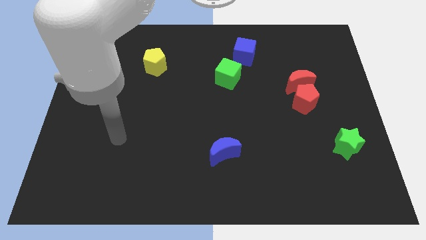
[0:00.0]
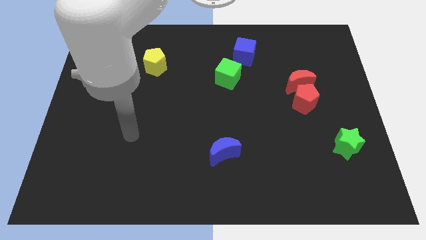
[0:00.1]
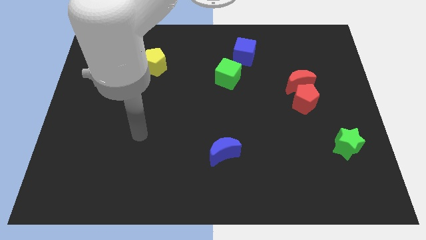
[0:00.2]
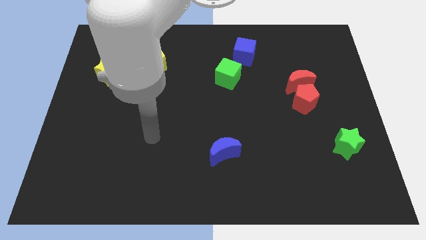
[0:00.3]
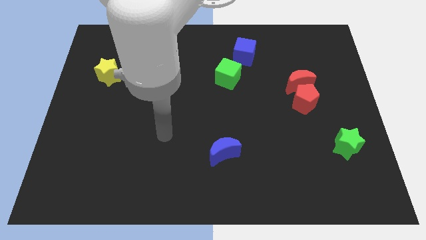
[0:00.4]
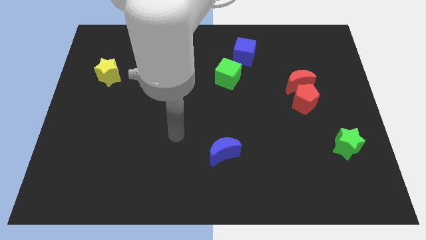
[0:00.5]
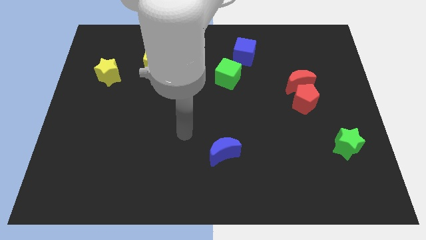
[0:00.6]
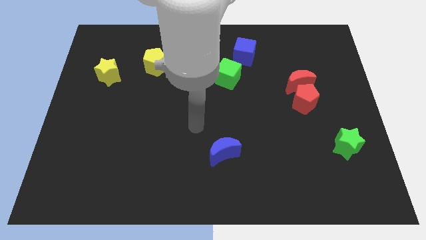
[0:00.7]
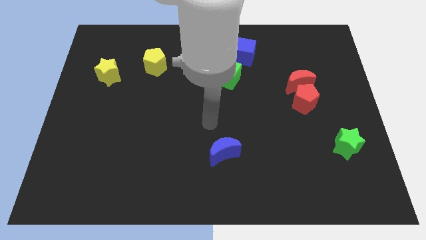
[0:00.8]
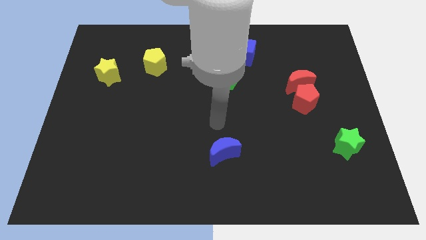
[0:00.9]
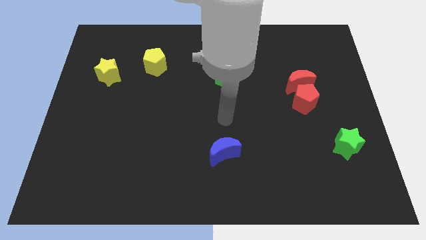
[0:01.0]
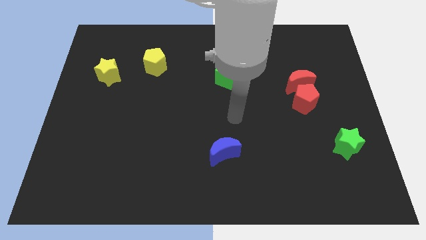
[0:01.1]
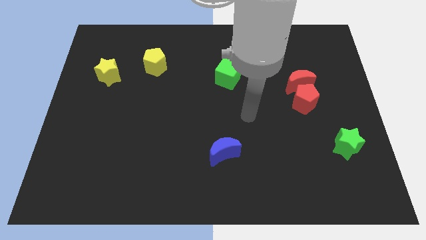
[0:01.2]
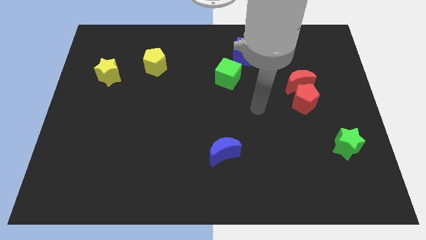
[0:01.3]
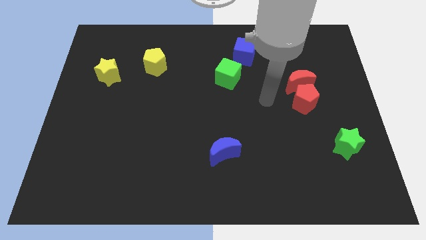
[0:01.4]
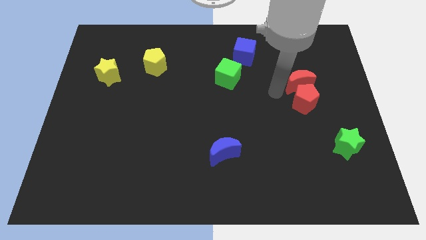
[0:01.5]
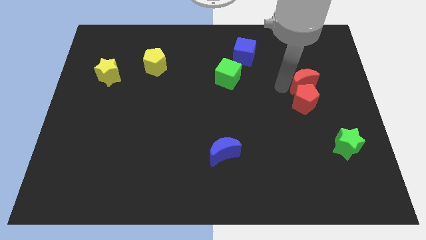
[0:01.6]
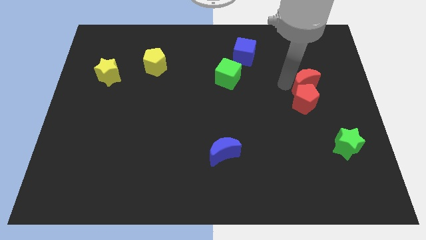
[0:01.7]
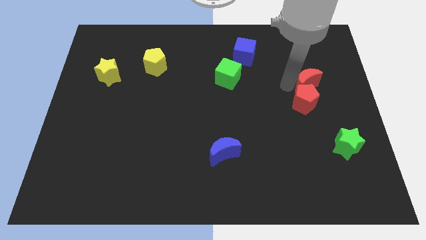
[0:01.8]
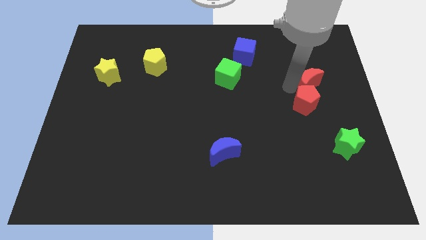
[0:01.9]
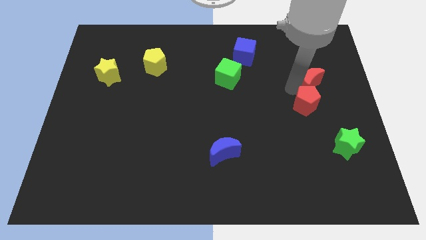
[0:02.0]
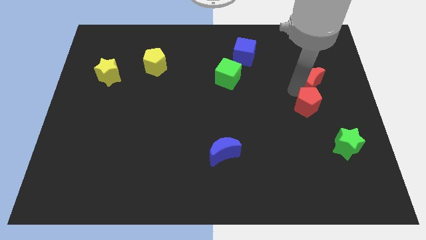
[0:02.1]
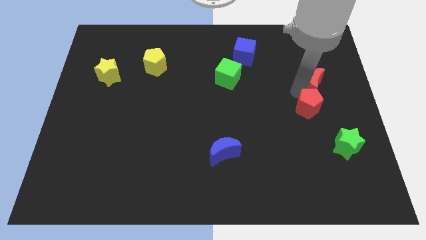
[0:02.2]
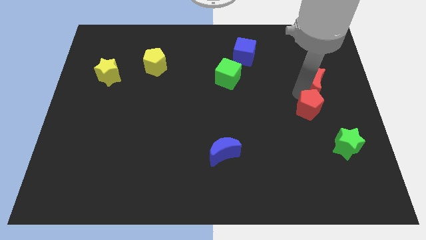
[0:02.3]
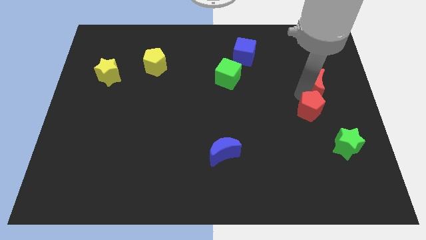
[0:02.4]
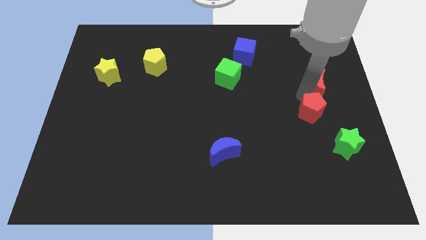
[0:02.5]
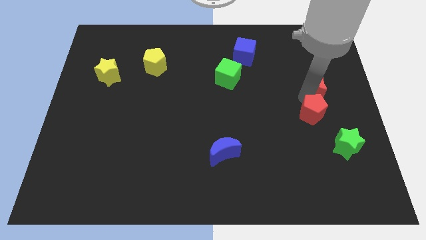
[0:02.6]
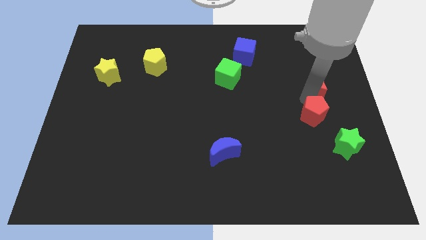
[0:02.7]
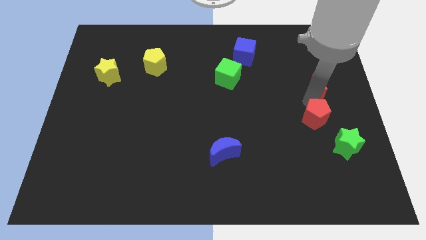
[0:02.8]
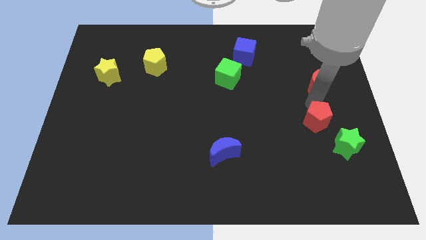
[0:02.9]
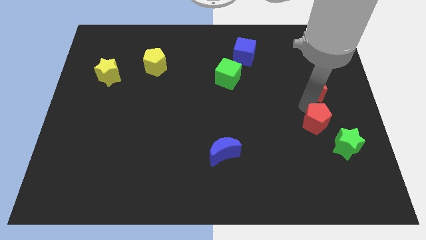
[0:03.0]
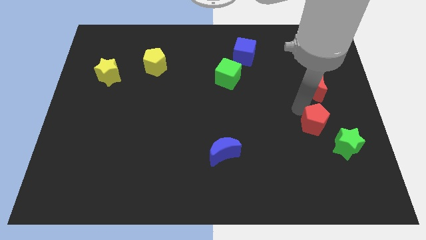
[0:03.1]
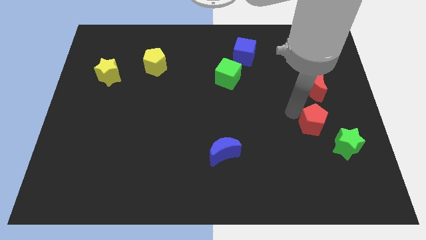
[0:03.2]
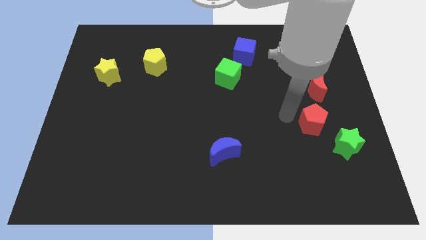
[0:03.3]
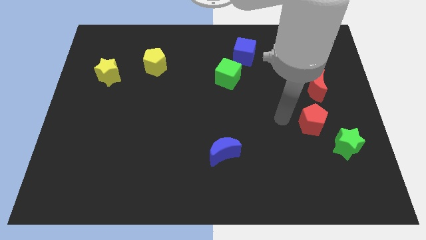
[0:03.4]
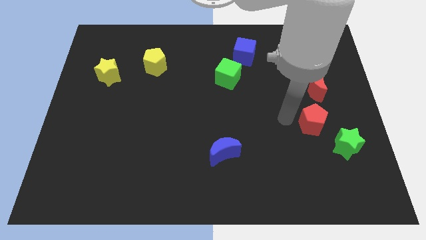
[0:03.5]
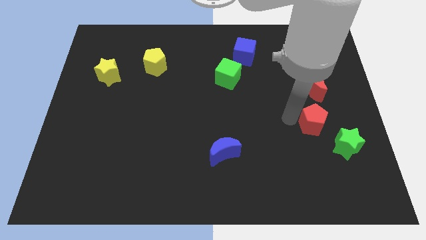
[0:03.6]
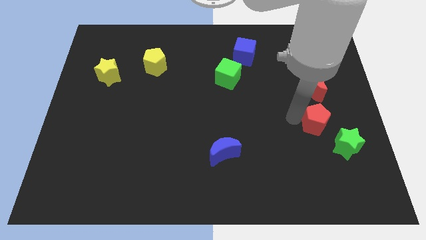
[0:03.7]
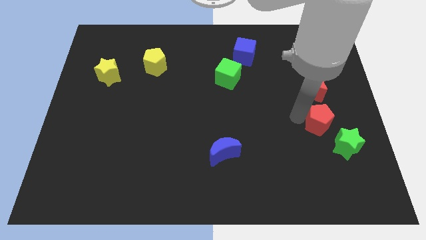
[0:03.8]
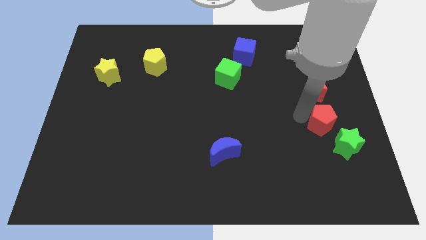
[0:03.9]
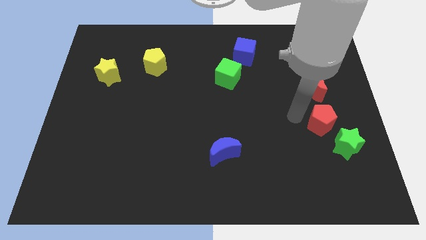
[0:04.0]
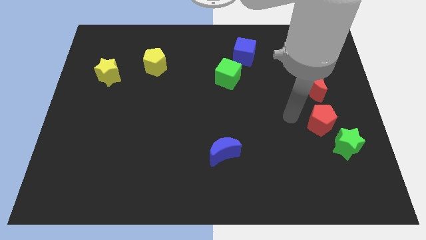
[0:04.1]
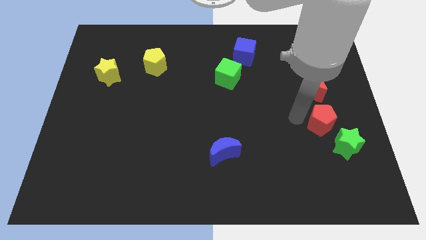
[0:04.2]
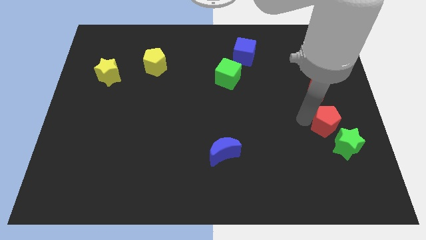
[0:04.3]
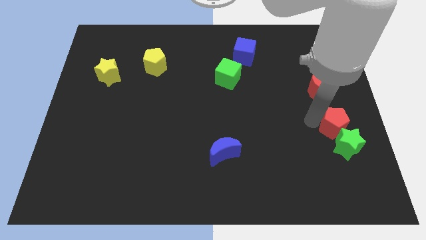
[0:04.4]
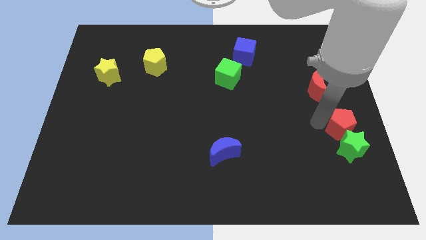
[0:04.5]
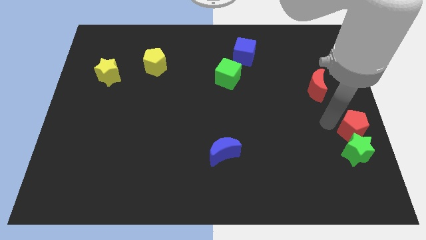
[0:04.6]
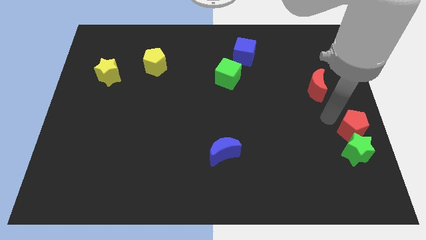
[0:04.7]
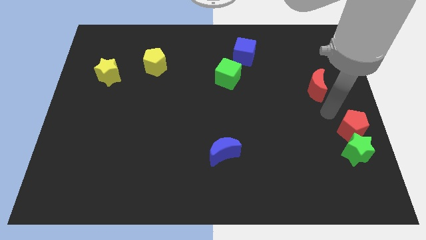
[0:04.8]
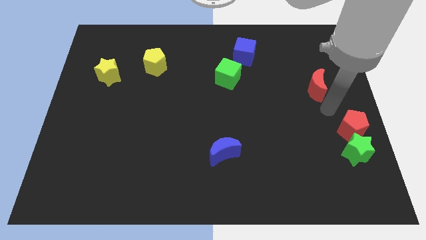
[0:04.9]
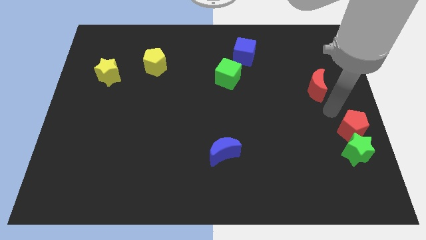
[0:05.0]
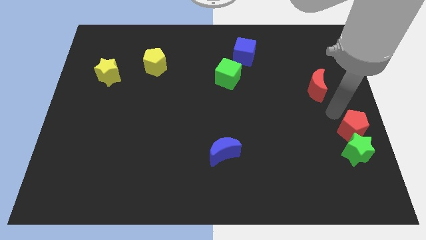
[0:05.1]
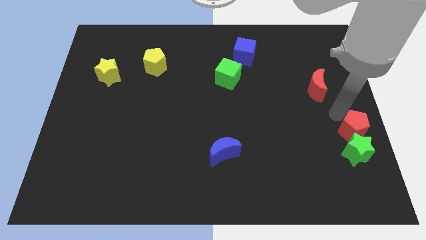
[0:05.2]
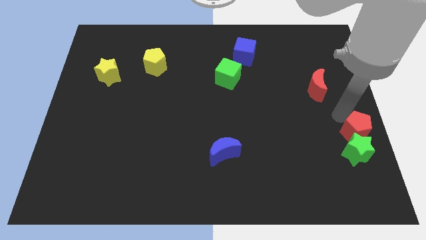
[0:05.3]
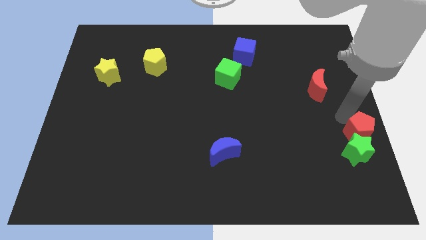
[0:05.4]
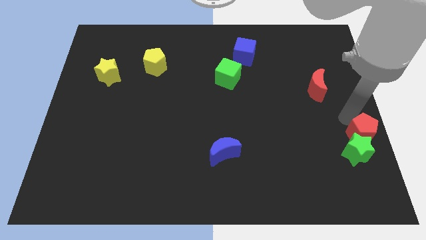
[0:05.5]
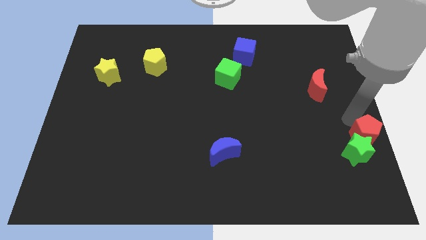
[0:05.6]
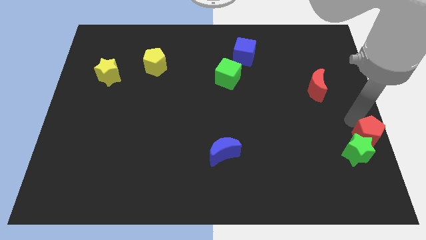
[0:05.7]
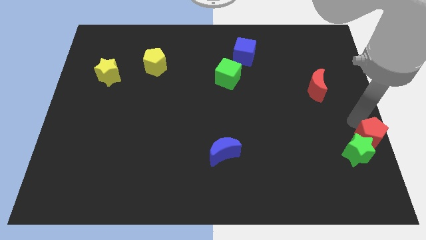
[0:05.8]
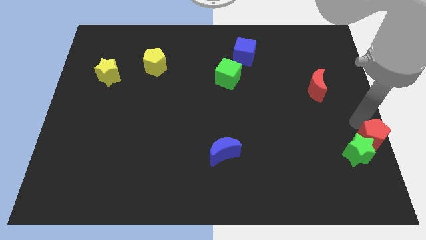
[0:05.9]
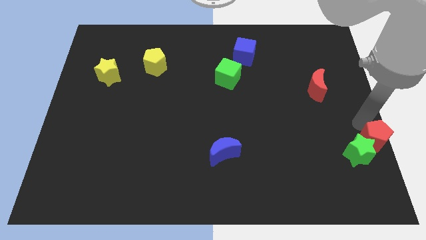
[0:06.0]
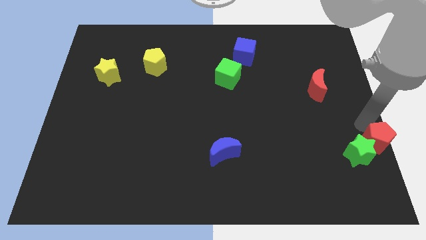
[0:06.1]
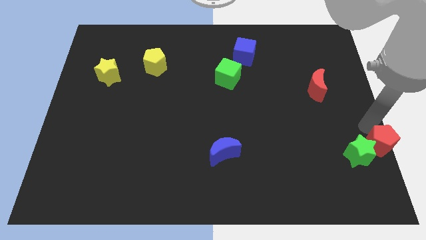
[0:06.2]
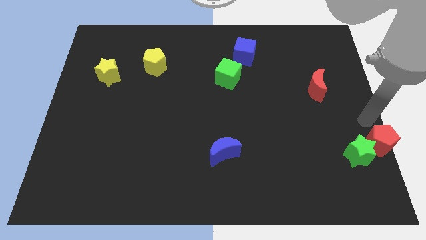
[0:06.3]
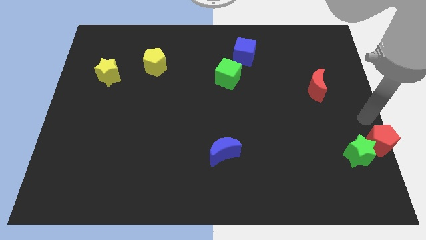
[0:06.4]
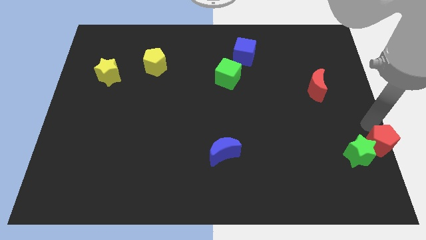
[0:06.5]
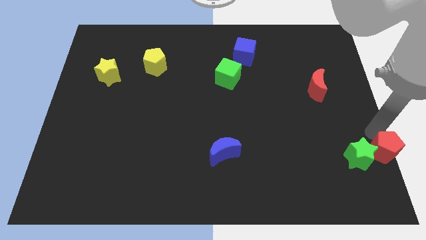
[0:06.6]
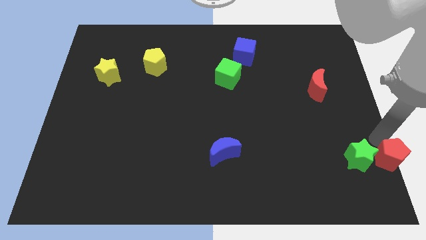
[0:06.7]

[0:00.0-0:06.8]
put the red pentagon to the lower right corner
